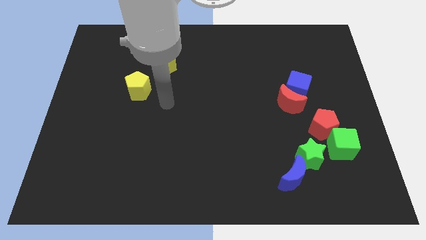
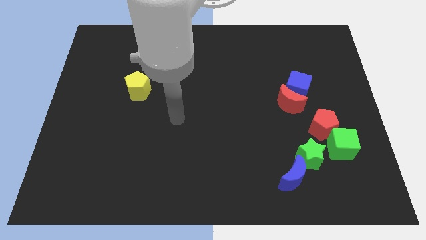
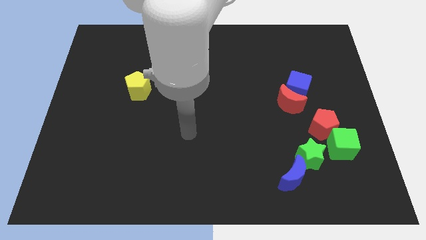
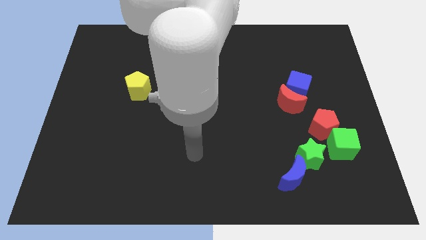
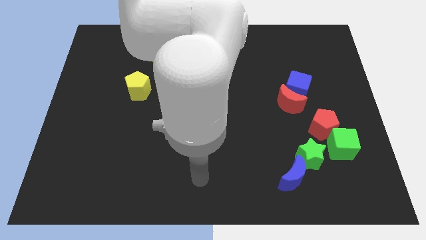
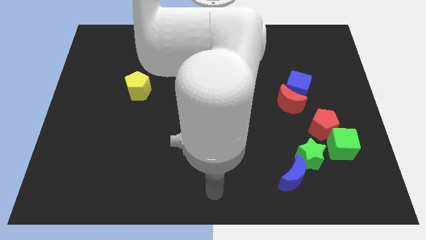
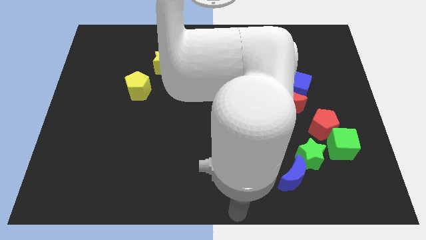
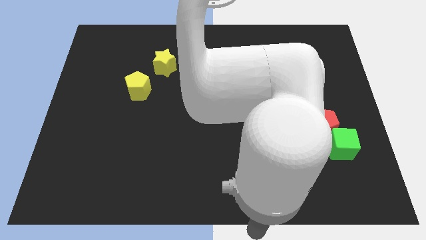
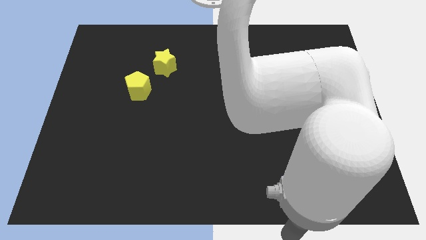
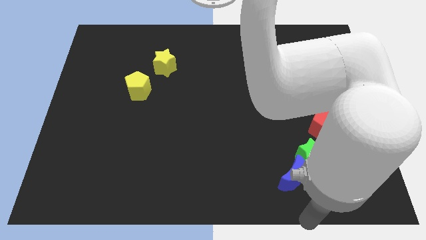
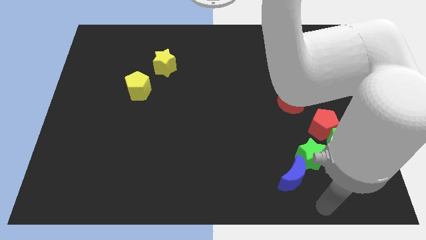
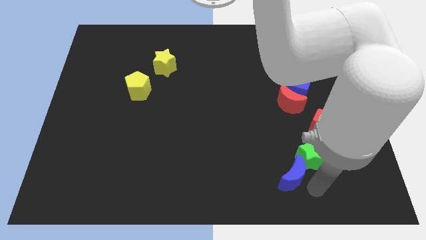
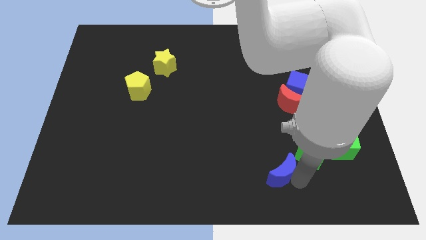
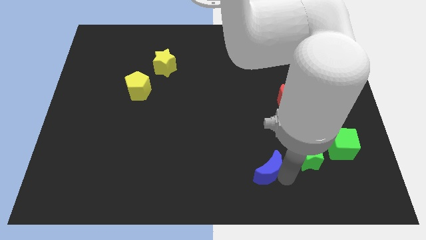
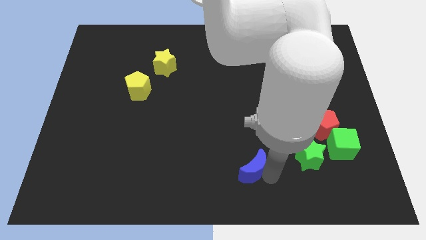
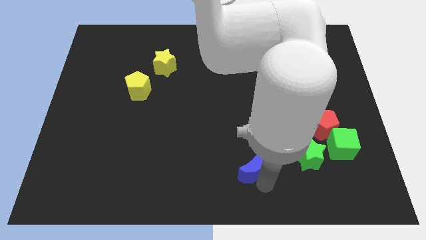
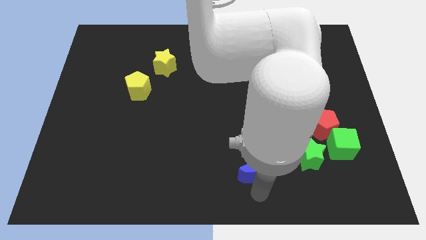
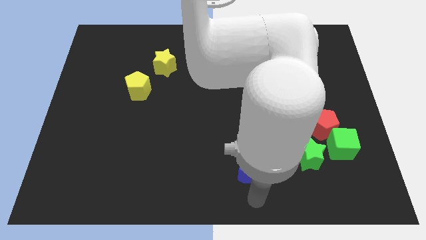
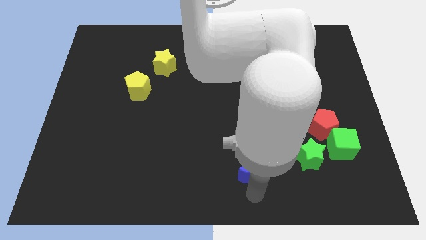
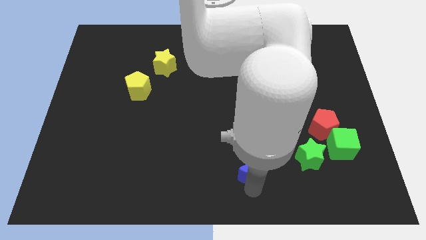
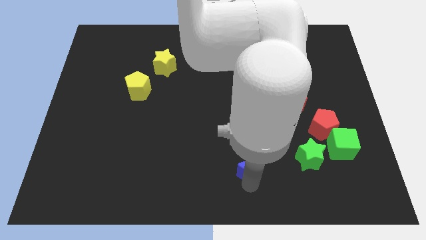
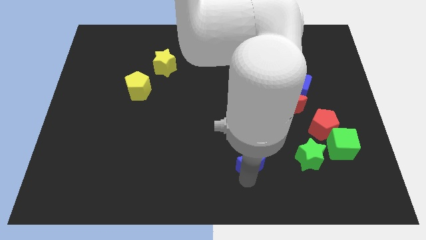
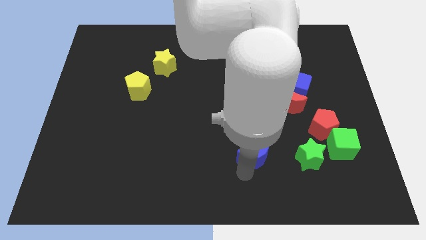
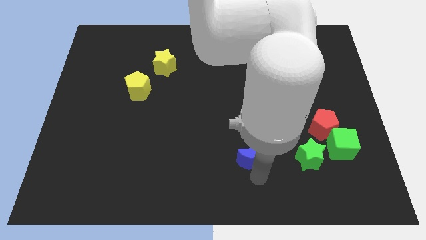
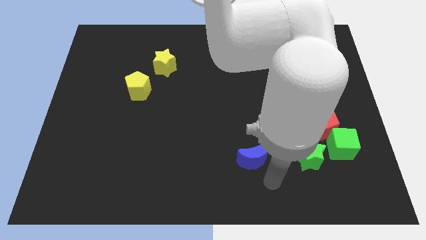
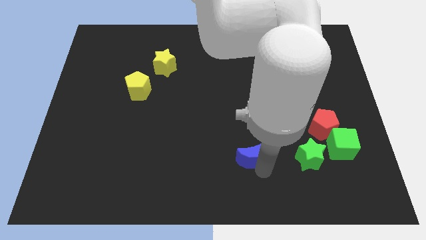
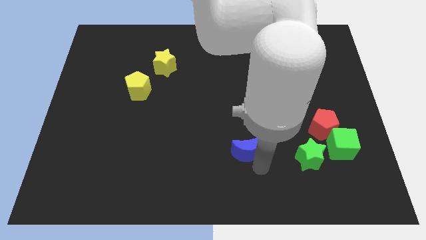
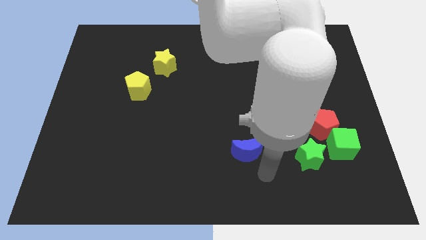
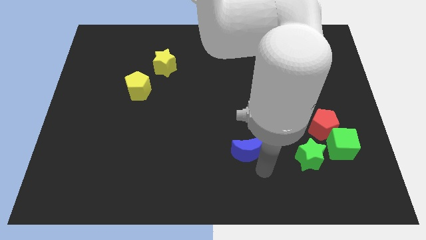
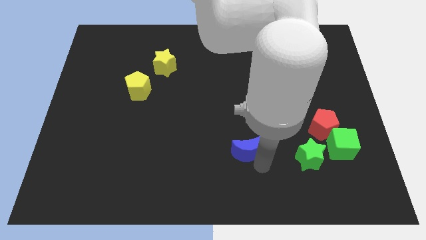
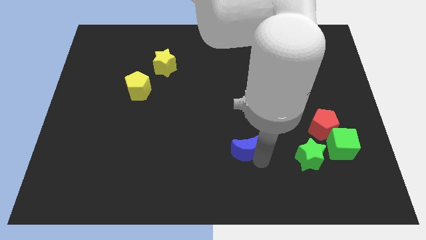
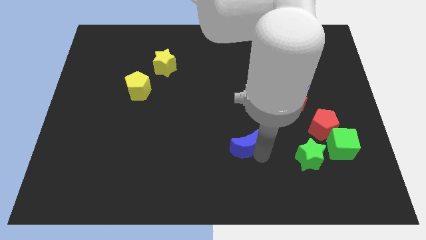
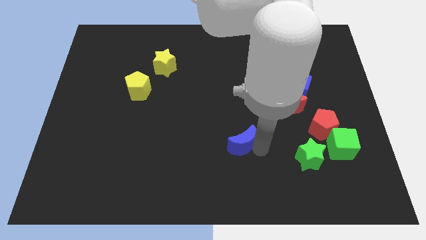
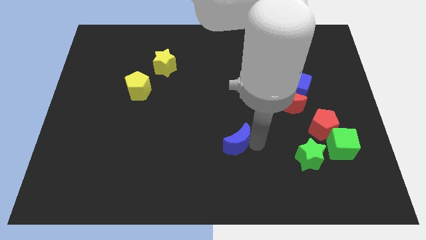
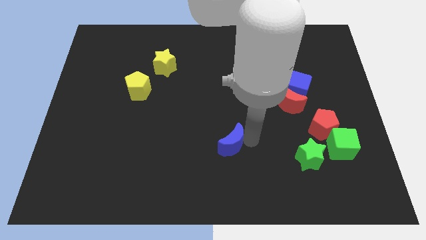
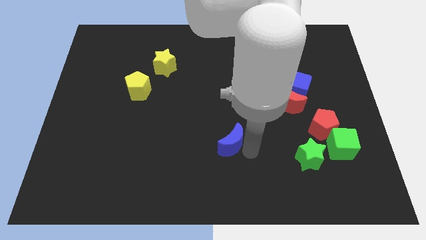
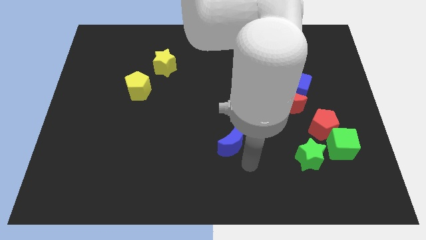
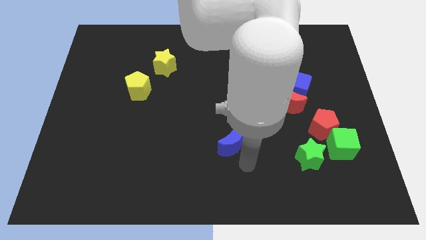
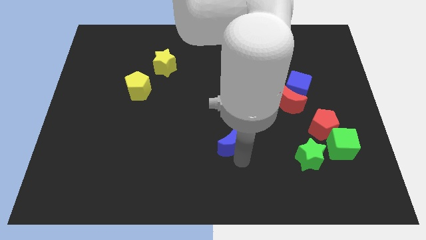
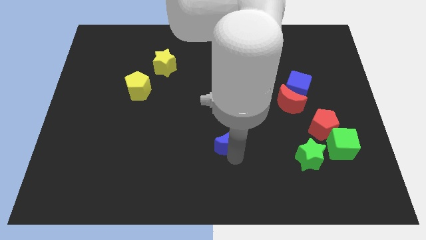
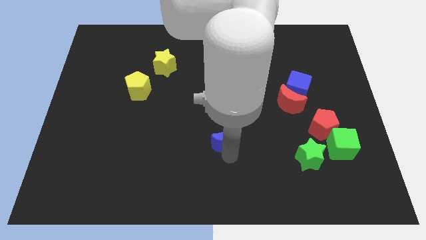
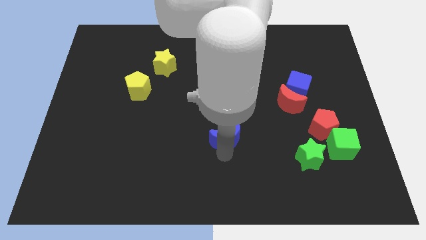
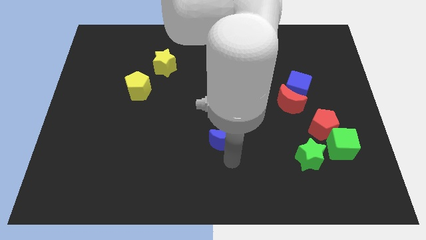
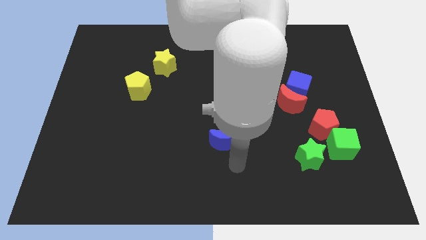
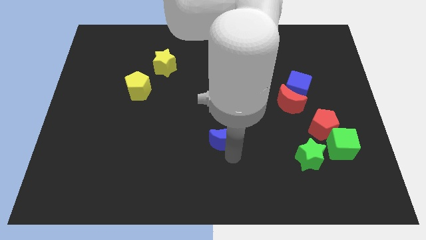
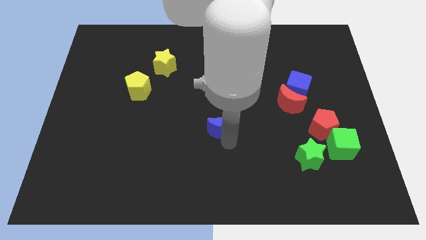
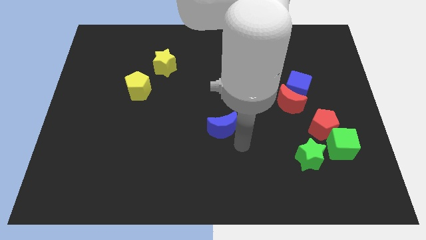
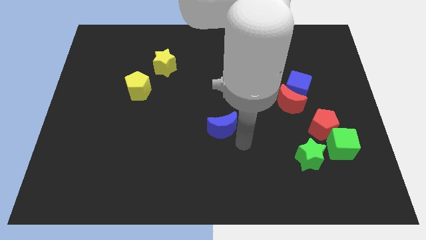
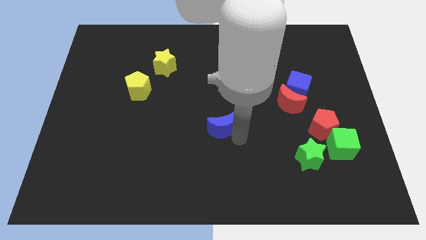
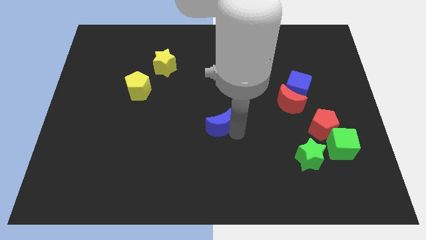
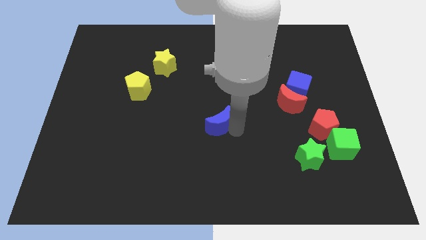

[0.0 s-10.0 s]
slide the blue moon up and then to the left

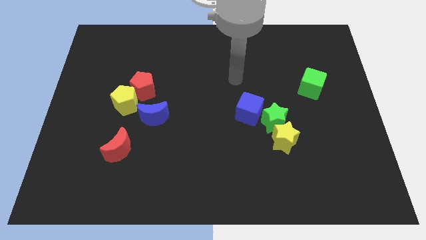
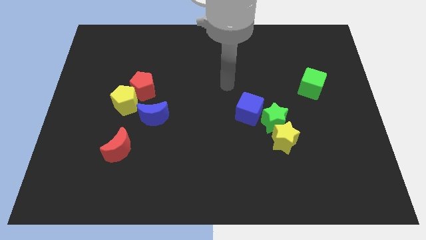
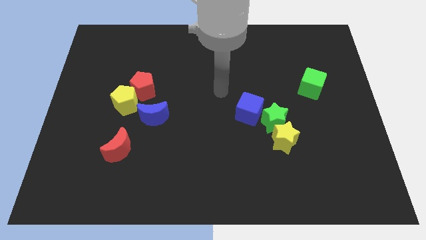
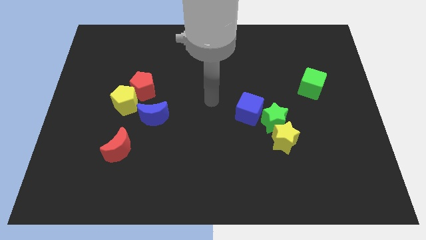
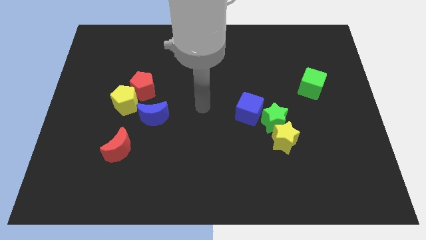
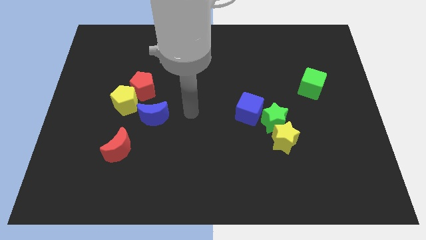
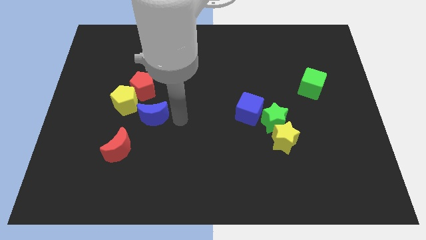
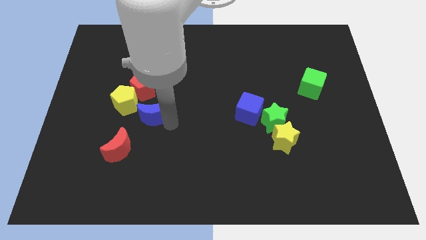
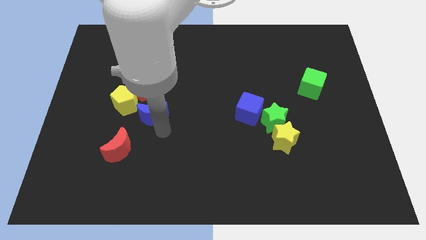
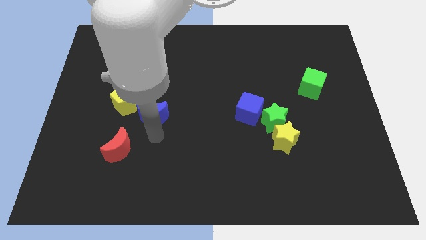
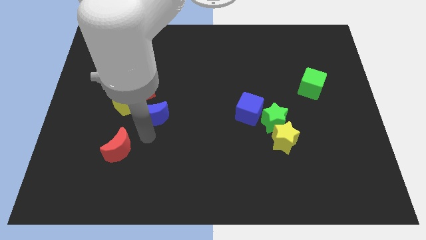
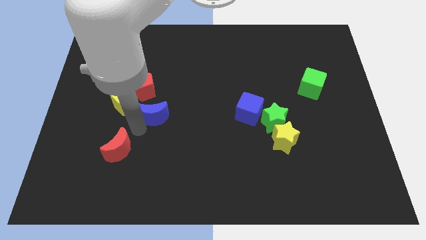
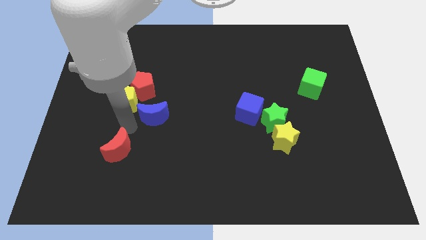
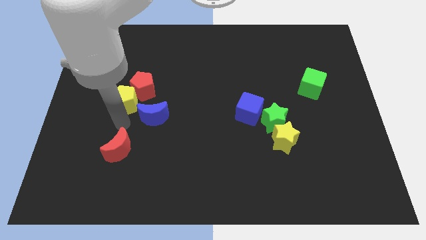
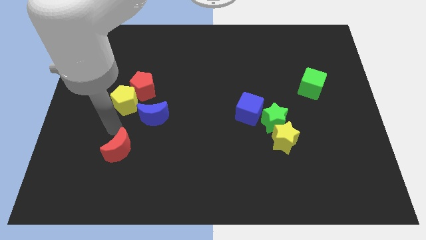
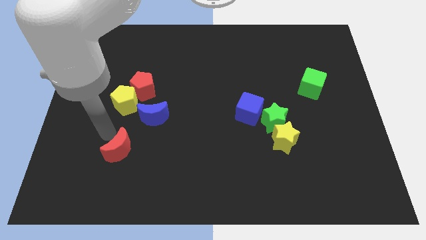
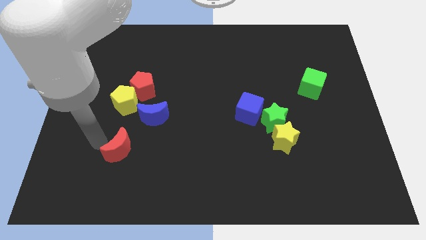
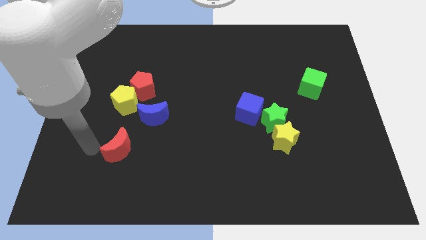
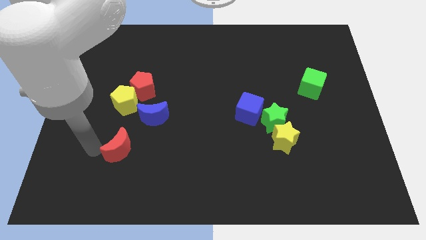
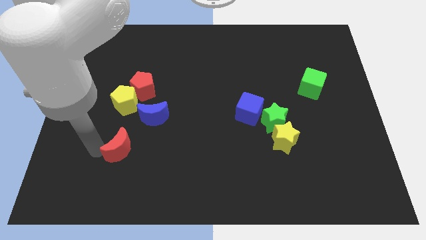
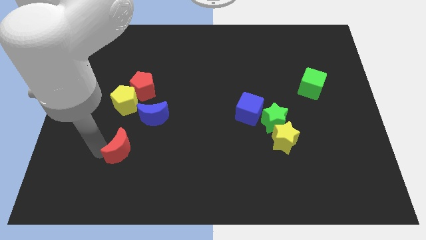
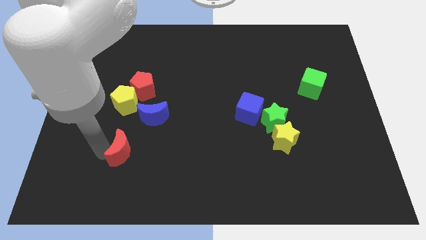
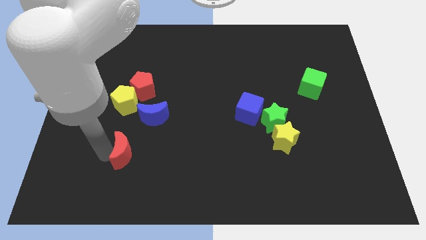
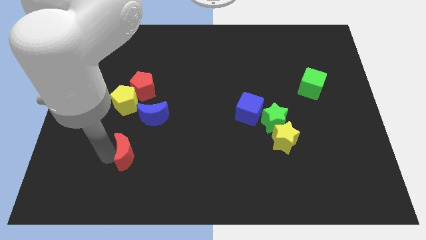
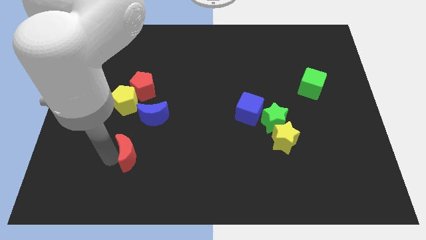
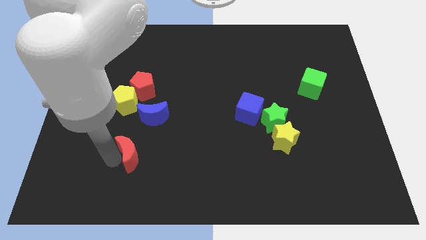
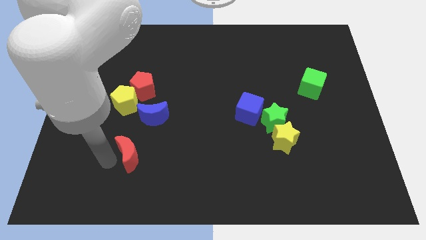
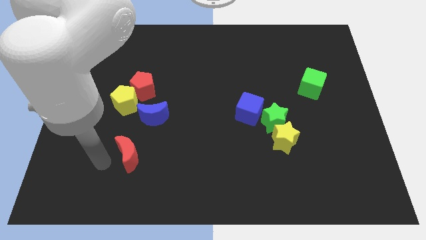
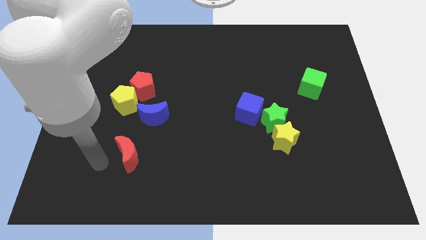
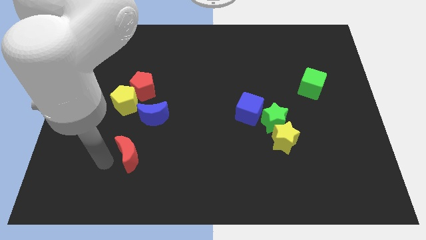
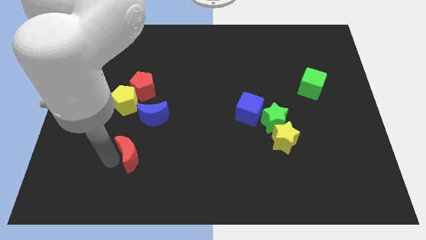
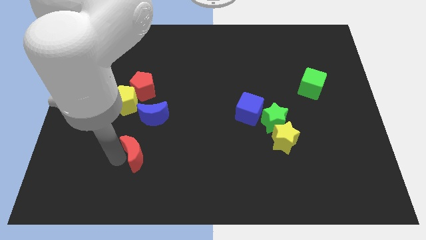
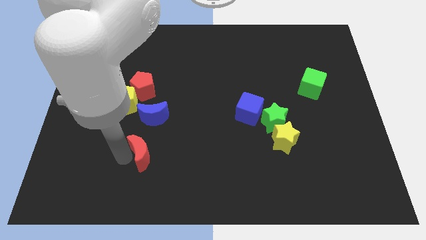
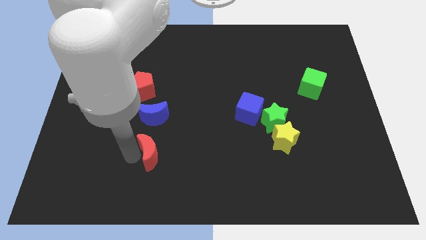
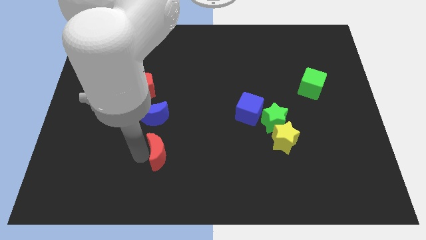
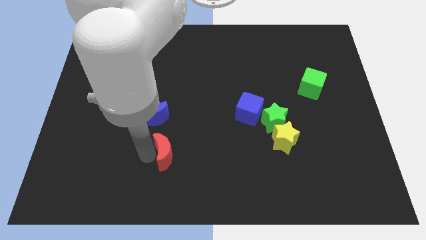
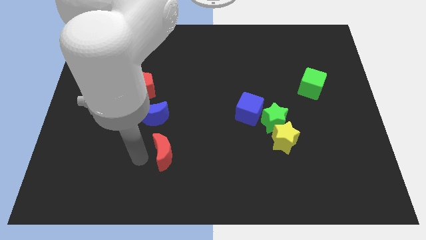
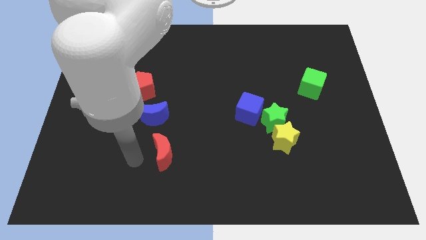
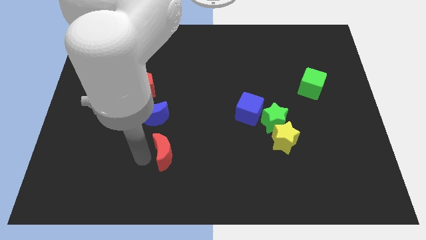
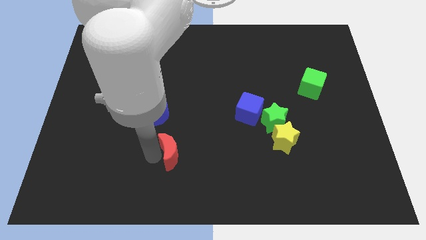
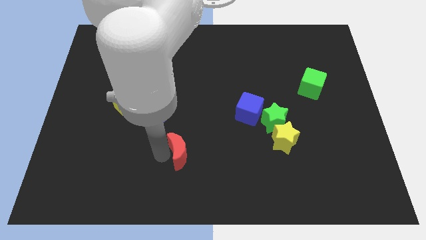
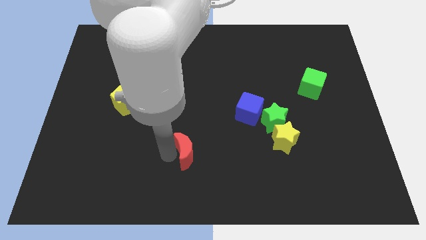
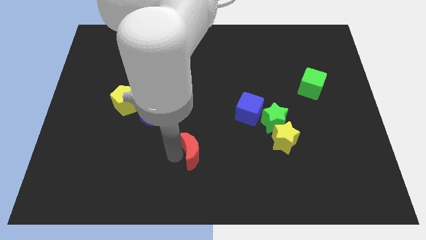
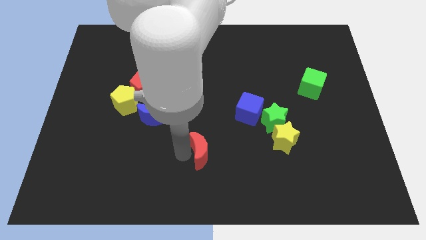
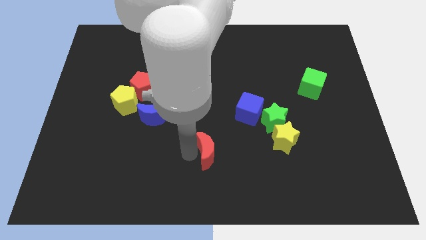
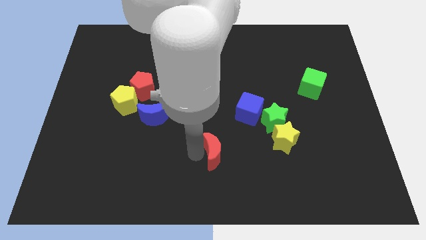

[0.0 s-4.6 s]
move the red moon to the right
